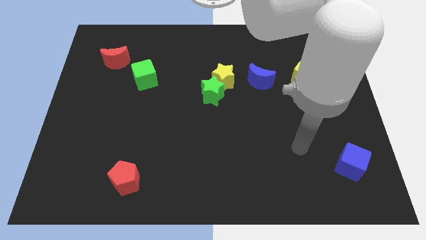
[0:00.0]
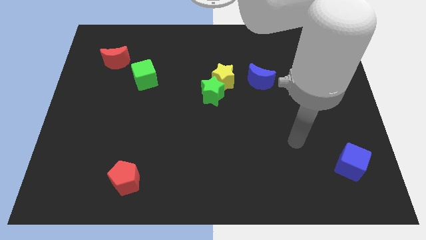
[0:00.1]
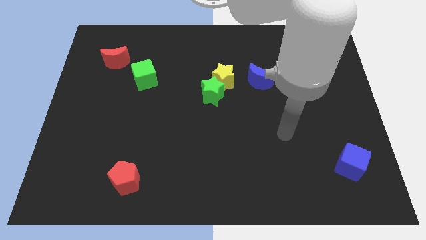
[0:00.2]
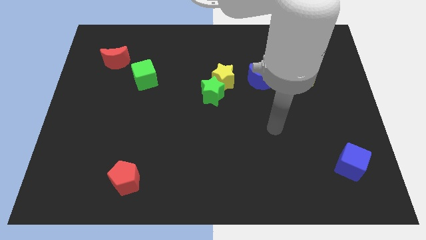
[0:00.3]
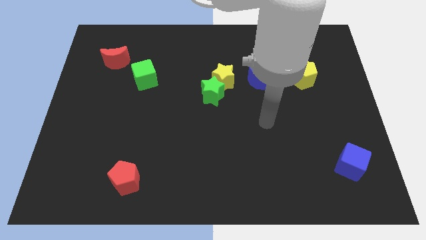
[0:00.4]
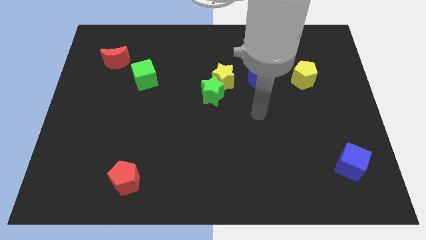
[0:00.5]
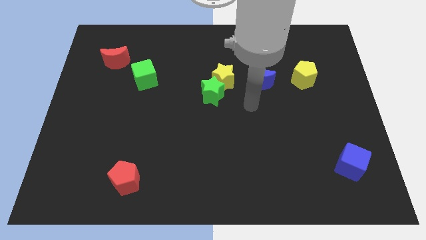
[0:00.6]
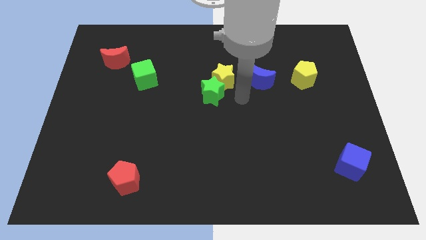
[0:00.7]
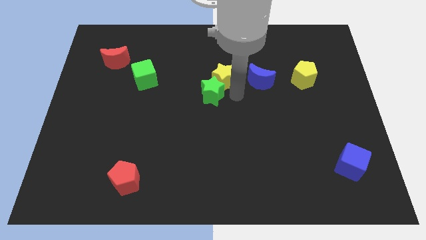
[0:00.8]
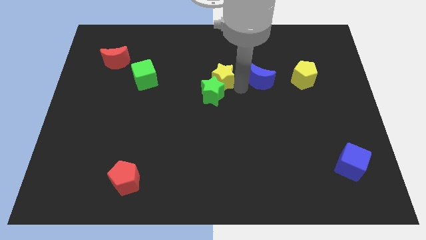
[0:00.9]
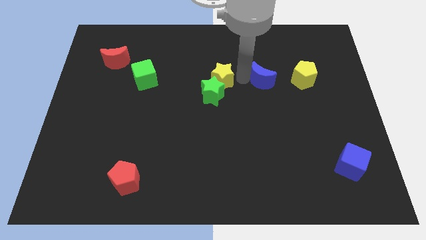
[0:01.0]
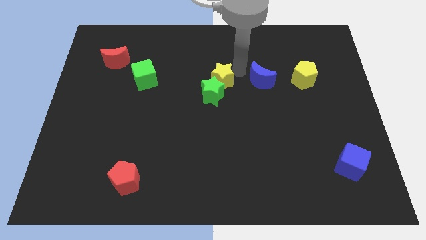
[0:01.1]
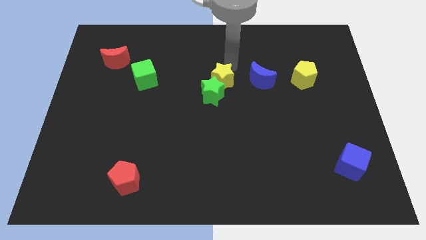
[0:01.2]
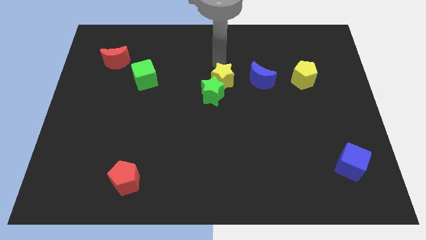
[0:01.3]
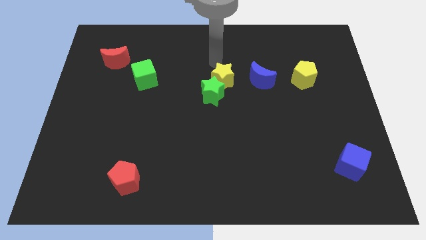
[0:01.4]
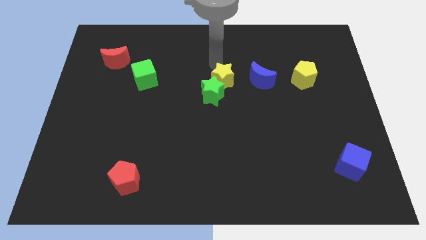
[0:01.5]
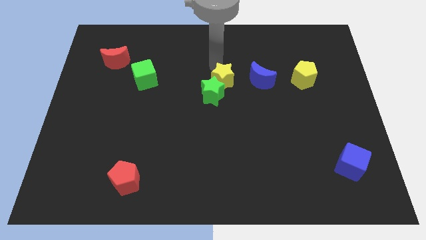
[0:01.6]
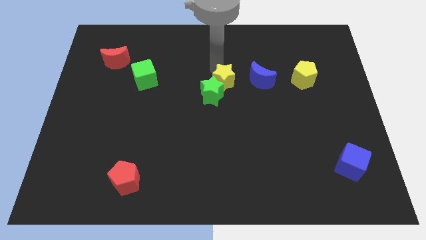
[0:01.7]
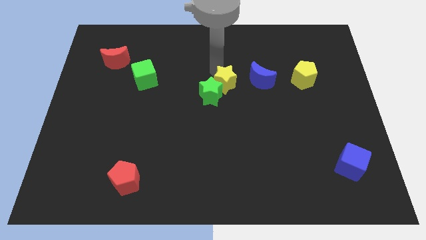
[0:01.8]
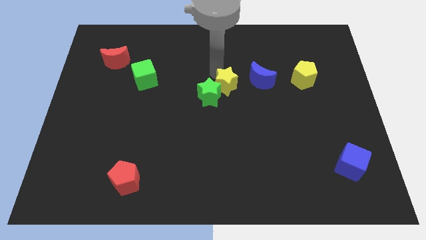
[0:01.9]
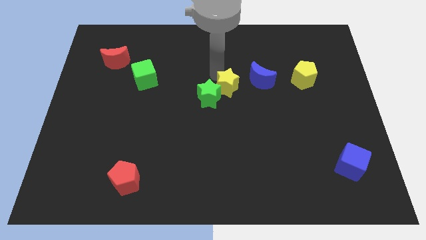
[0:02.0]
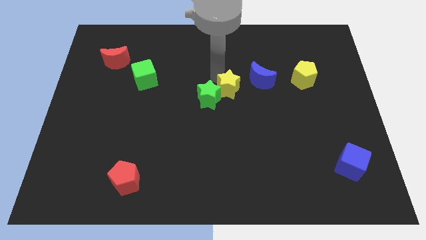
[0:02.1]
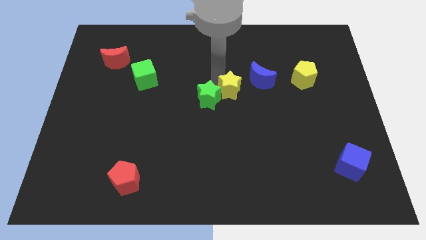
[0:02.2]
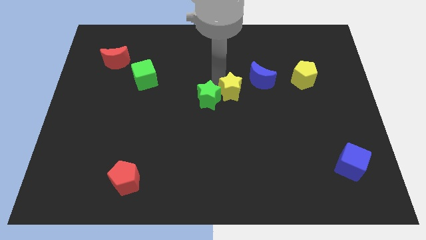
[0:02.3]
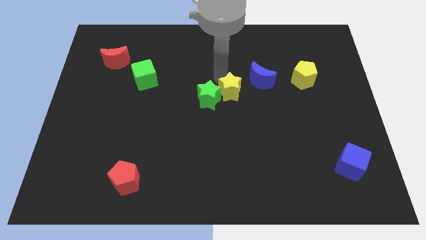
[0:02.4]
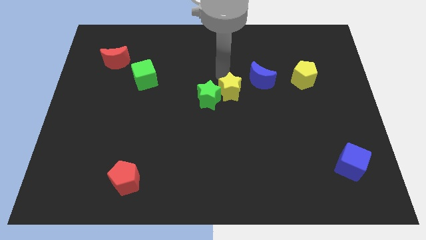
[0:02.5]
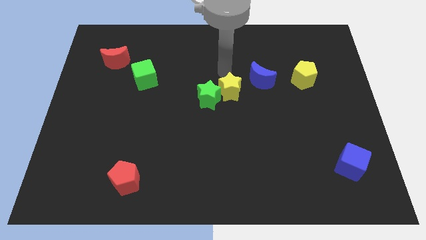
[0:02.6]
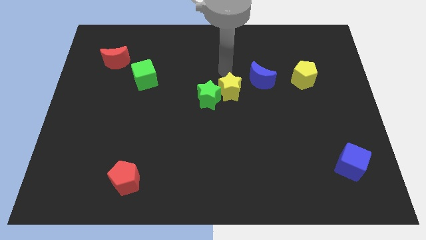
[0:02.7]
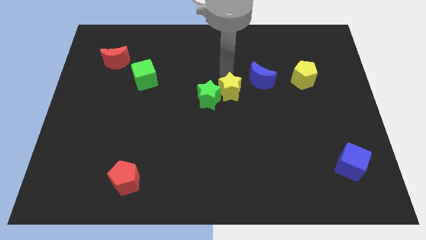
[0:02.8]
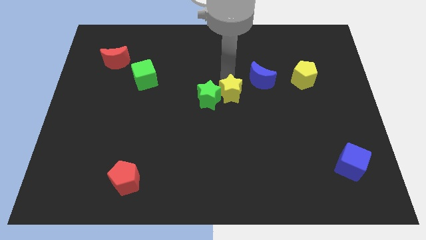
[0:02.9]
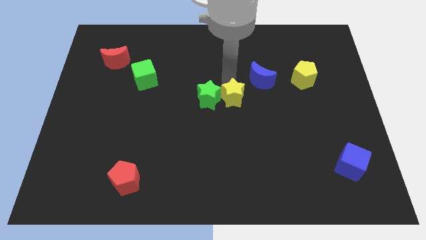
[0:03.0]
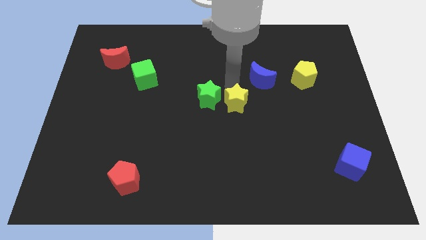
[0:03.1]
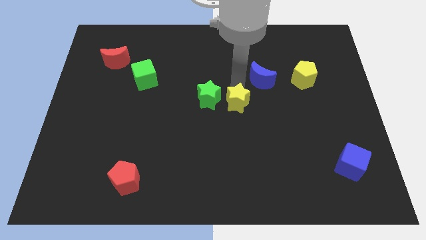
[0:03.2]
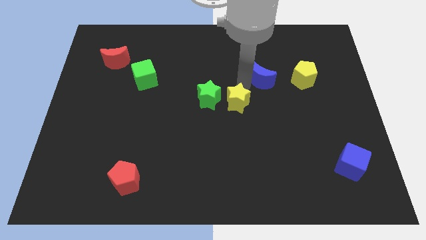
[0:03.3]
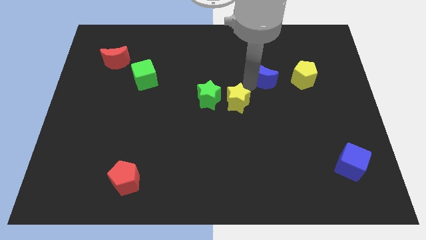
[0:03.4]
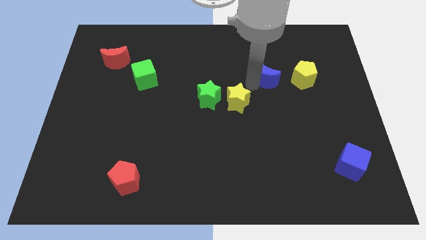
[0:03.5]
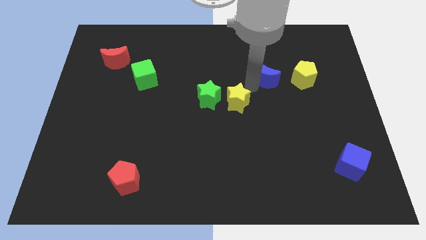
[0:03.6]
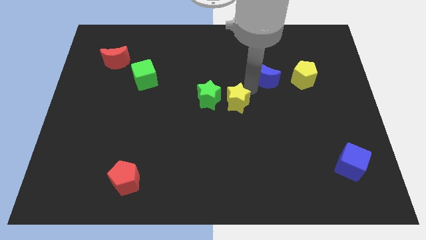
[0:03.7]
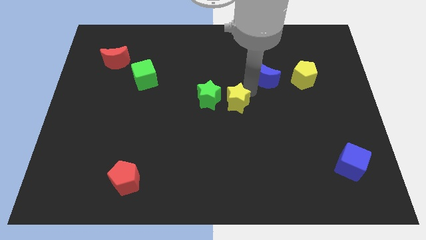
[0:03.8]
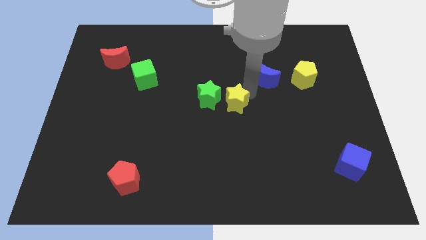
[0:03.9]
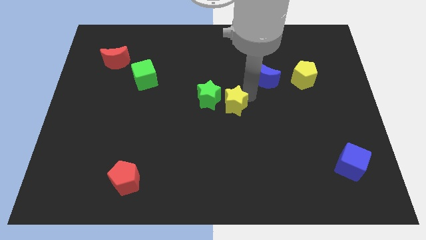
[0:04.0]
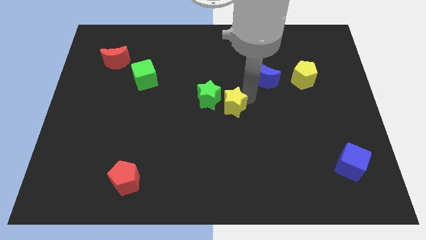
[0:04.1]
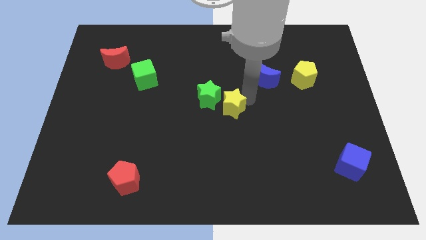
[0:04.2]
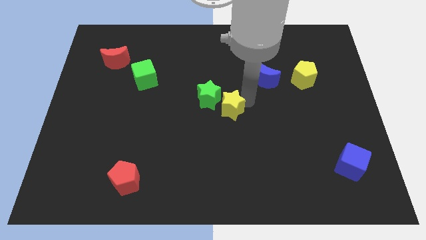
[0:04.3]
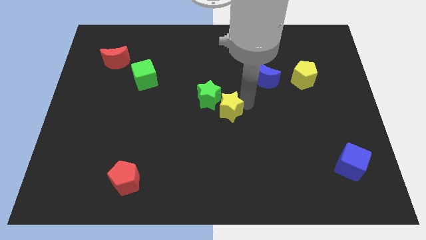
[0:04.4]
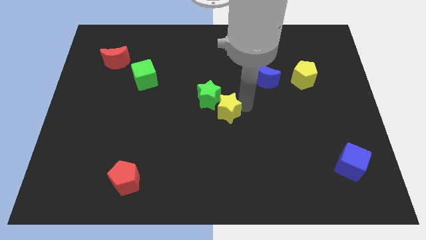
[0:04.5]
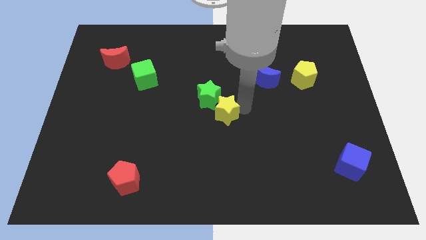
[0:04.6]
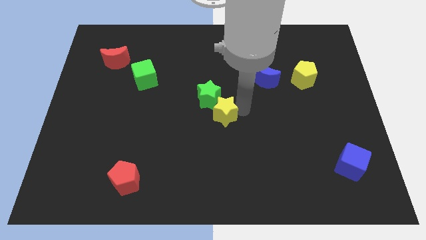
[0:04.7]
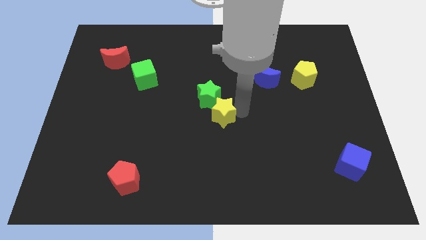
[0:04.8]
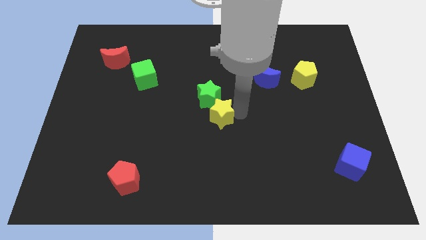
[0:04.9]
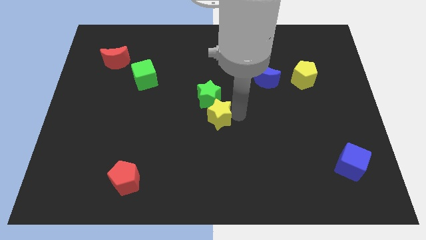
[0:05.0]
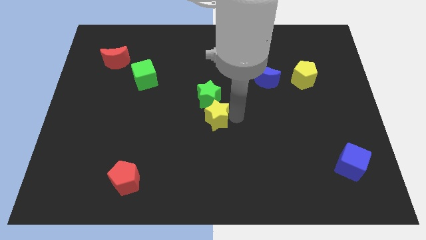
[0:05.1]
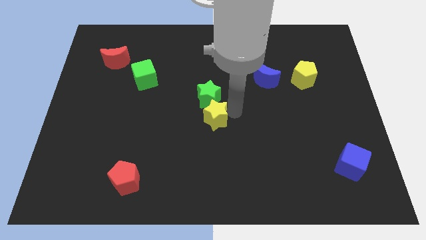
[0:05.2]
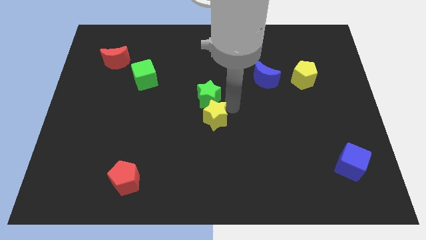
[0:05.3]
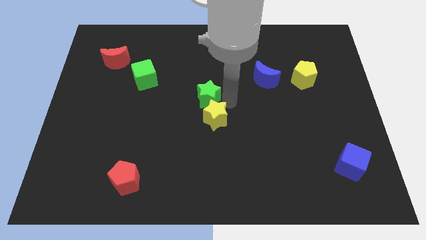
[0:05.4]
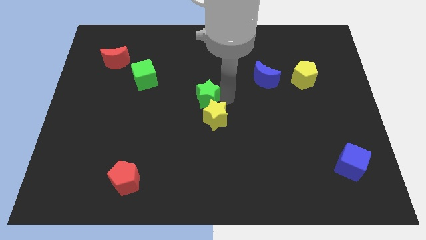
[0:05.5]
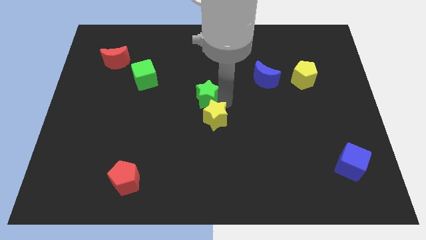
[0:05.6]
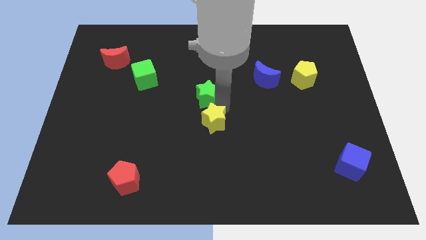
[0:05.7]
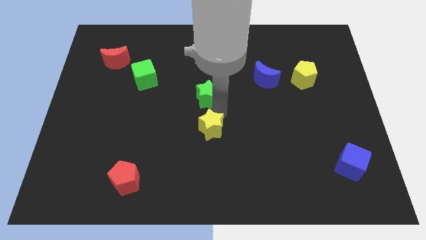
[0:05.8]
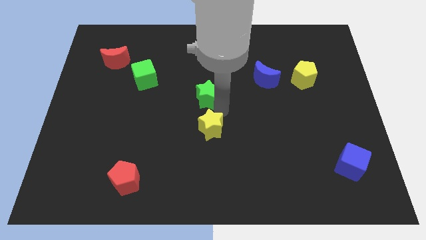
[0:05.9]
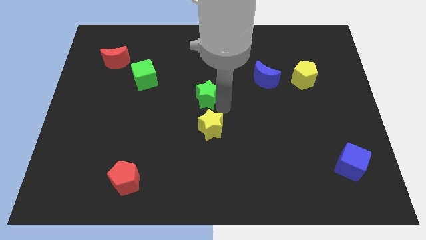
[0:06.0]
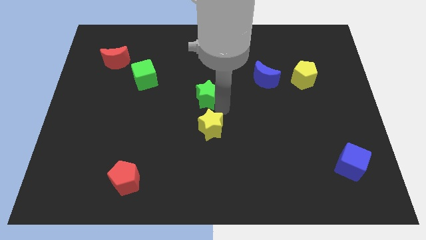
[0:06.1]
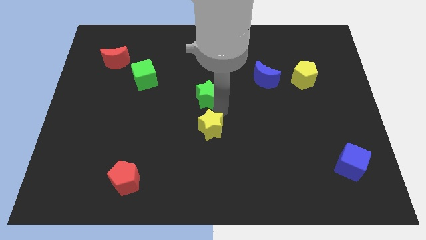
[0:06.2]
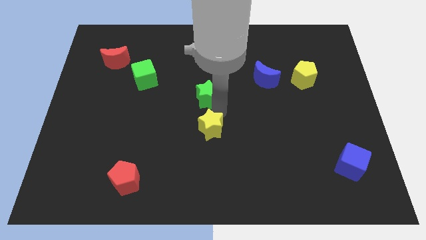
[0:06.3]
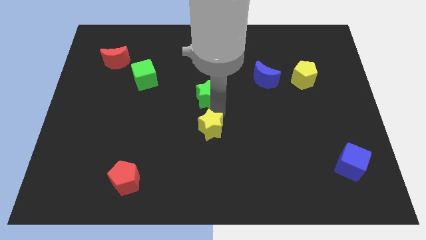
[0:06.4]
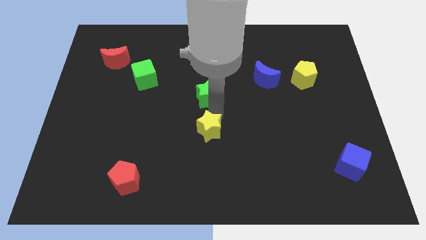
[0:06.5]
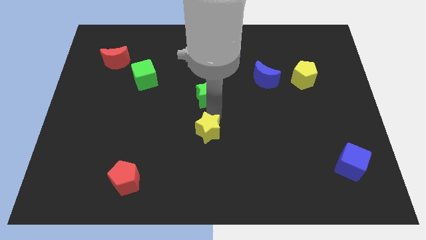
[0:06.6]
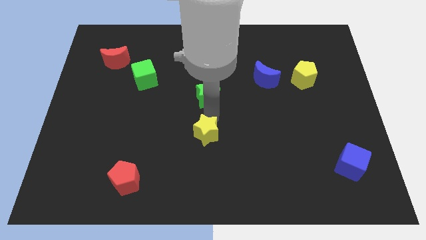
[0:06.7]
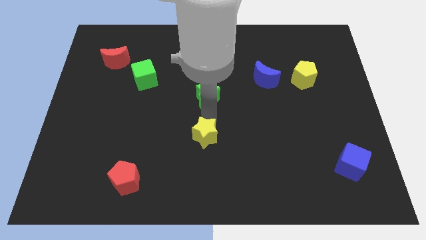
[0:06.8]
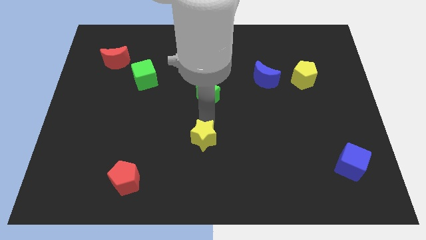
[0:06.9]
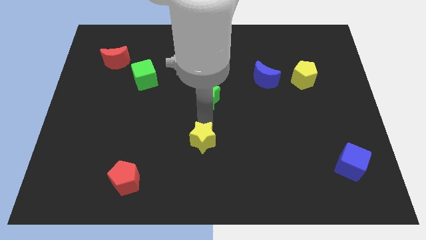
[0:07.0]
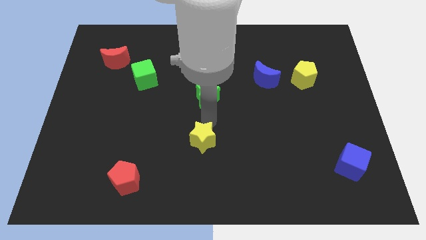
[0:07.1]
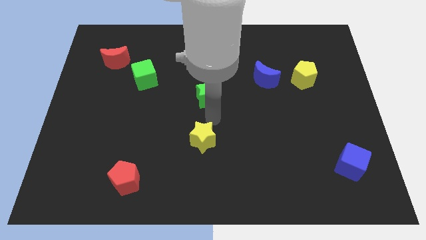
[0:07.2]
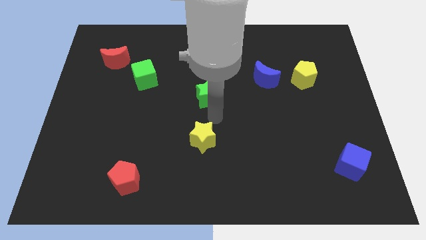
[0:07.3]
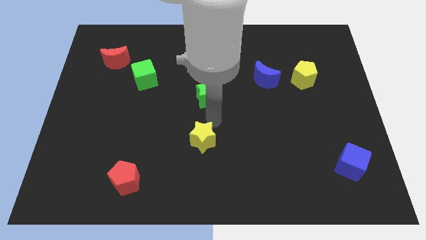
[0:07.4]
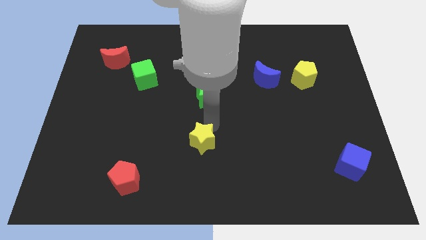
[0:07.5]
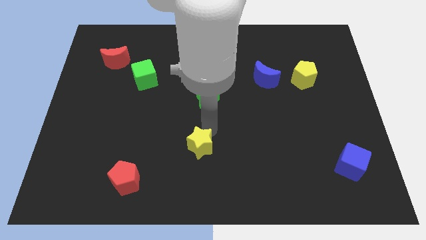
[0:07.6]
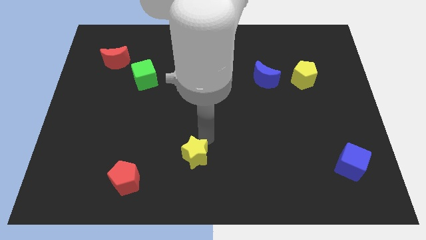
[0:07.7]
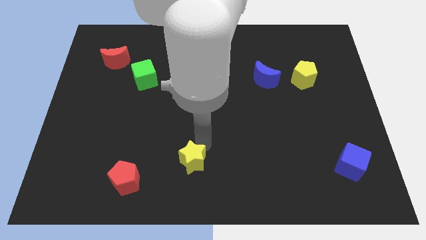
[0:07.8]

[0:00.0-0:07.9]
push the yellow star to the right side of the red pentagon
